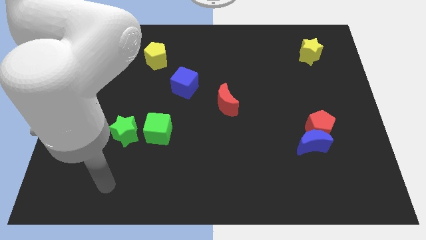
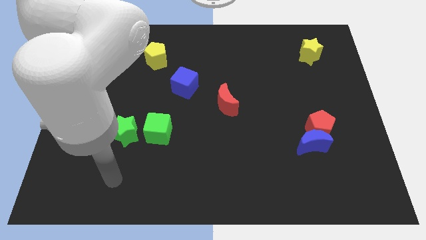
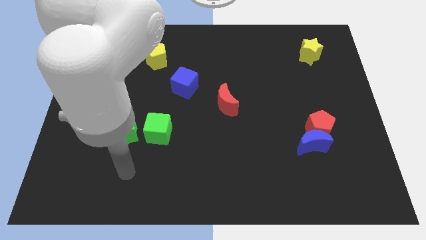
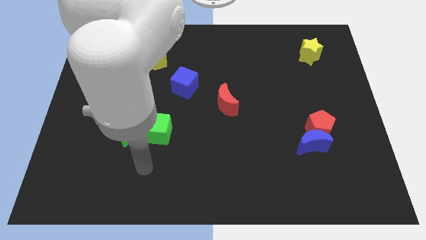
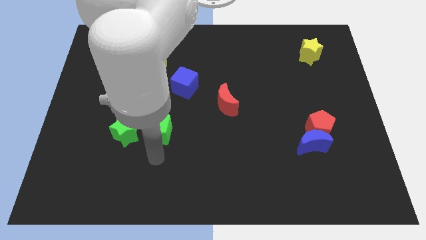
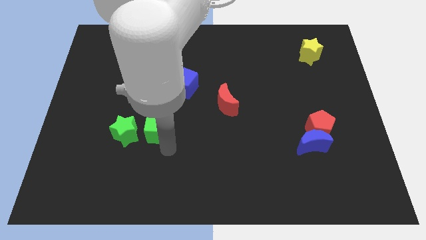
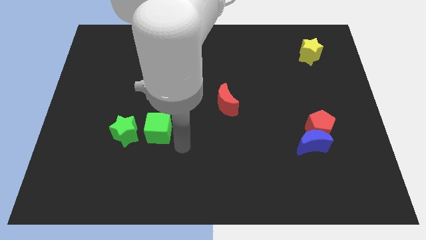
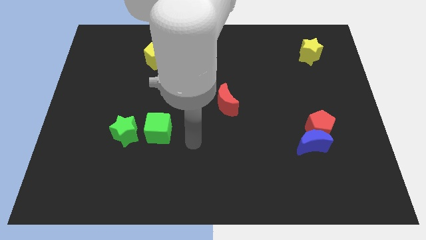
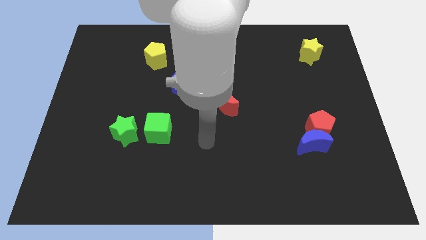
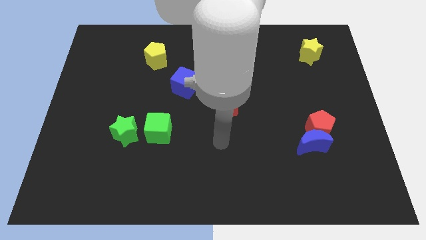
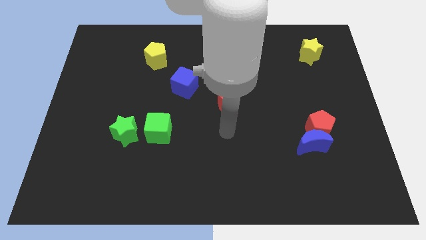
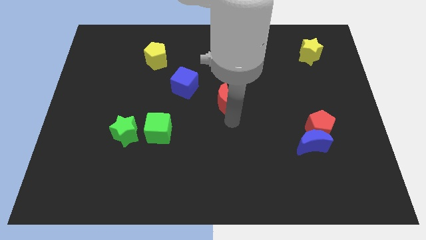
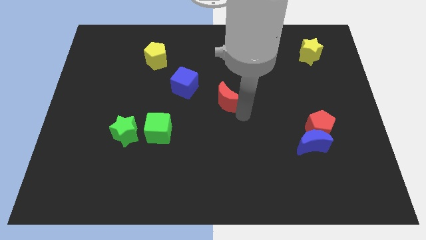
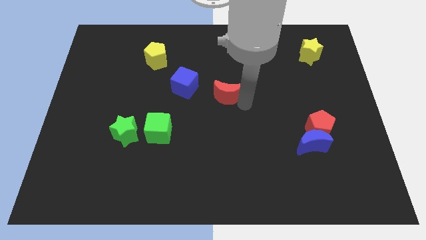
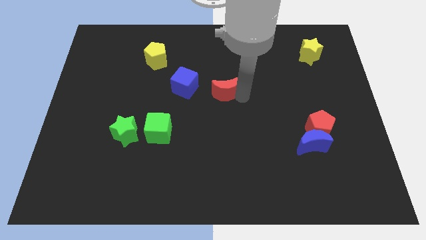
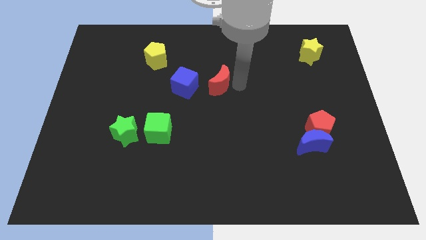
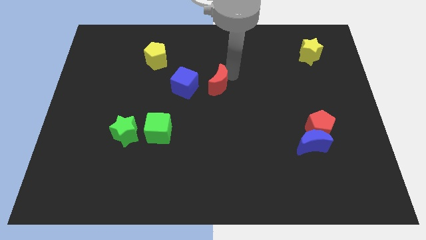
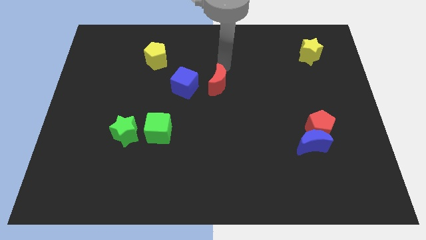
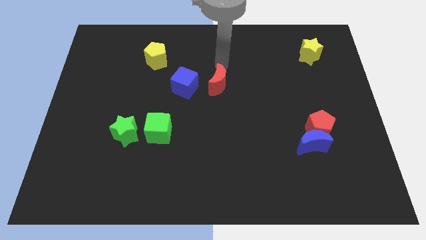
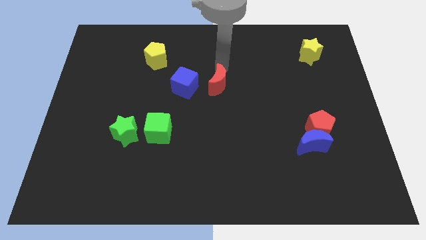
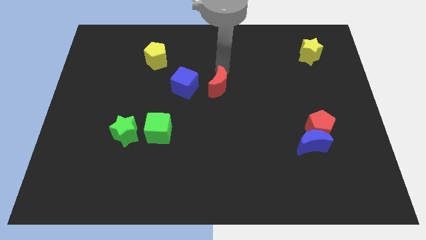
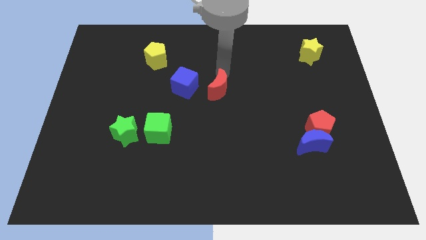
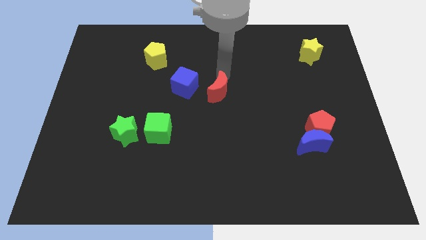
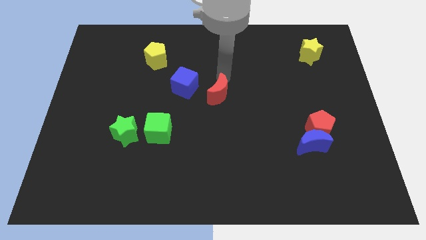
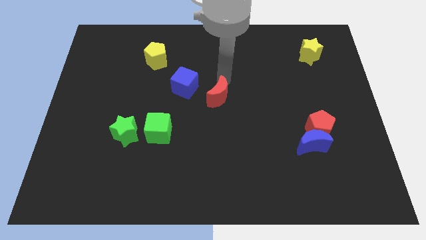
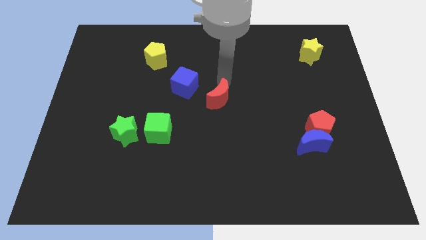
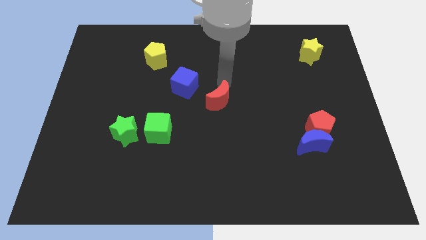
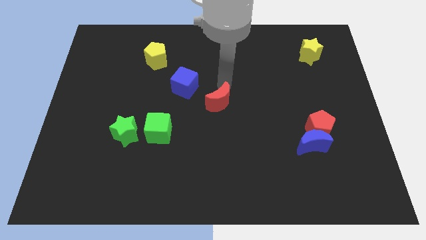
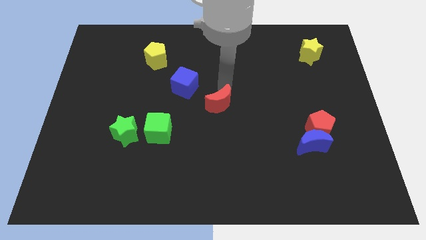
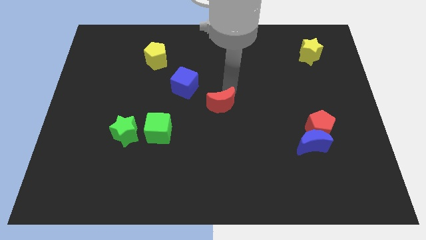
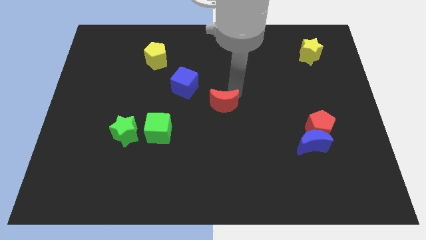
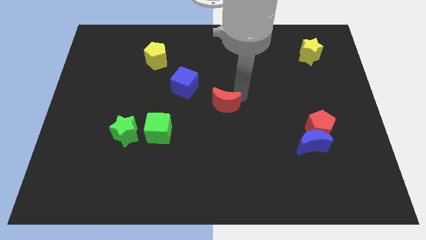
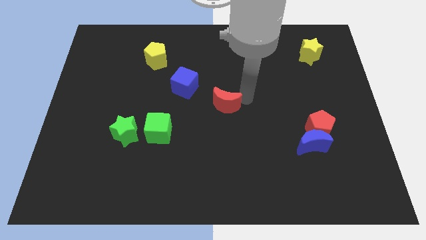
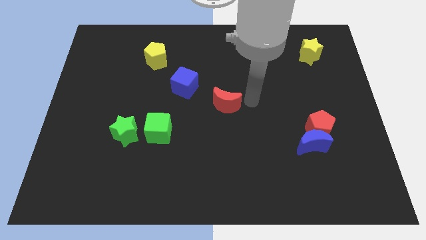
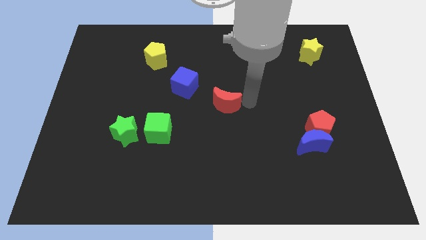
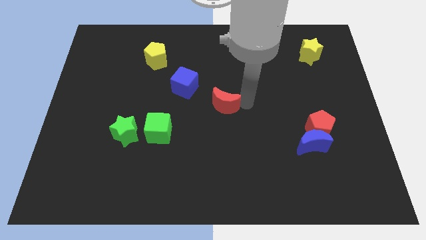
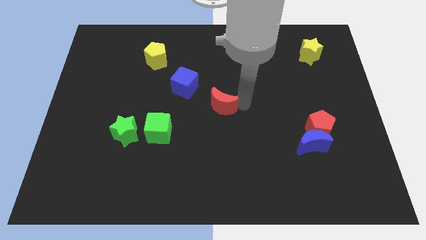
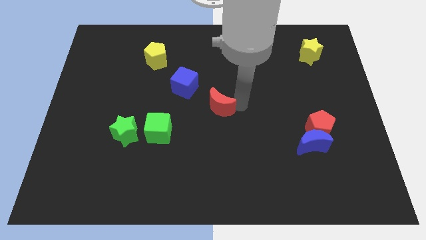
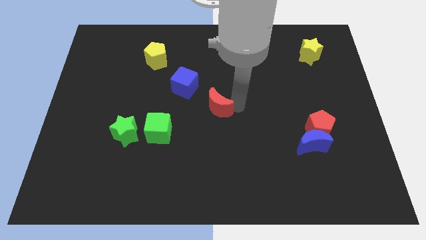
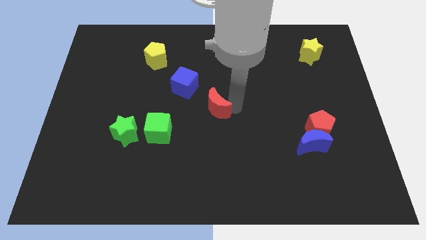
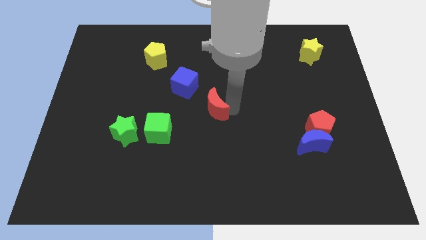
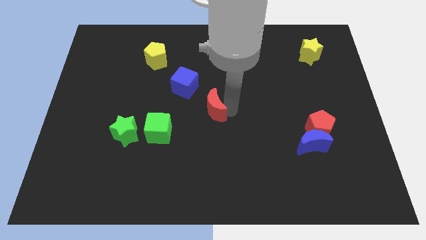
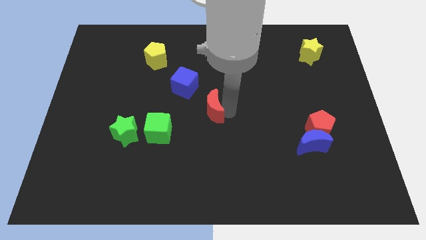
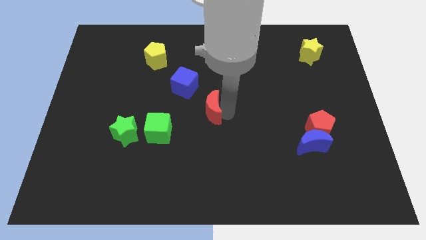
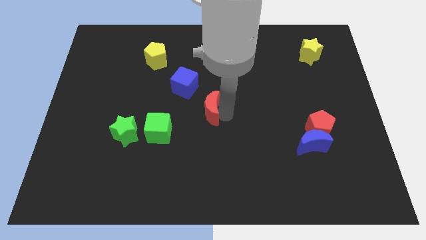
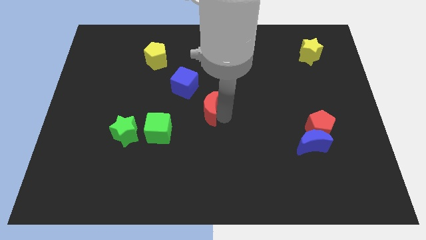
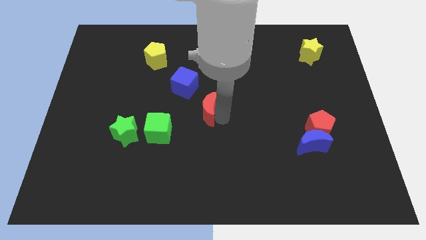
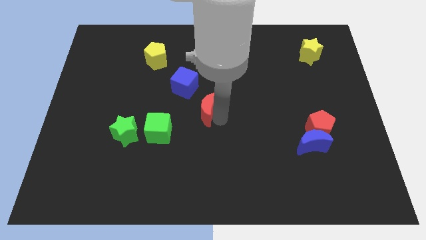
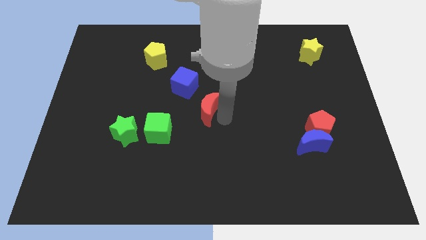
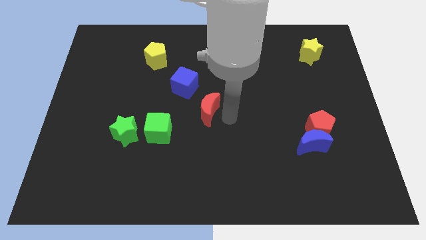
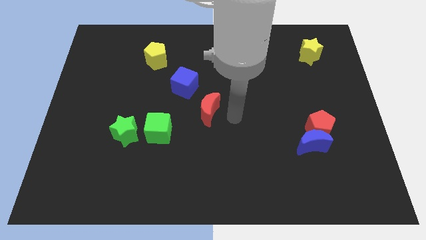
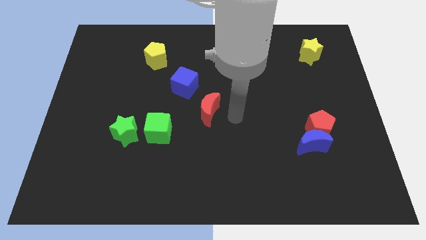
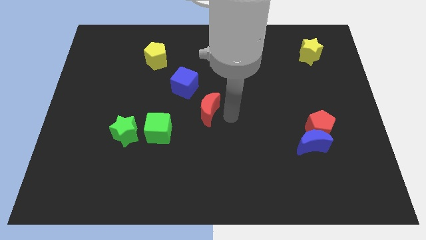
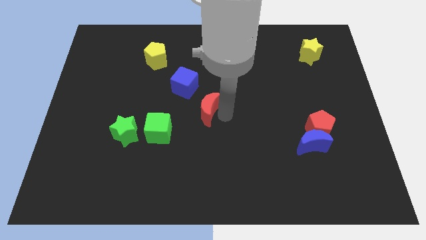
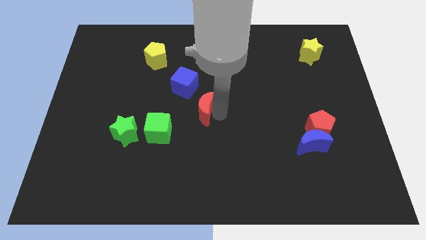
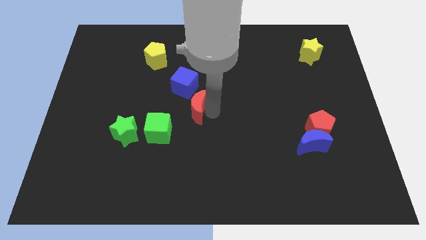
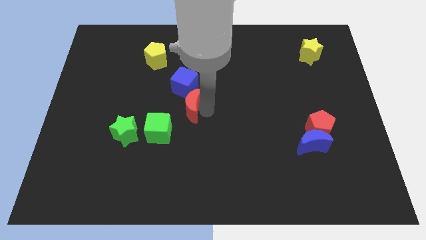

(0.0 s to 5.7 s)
slide the red moon left a bit

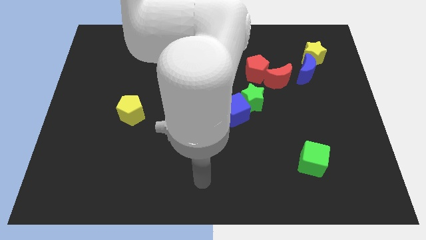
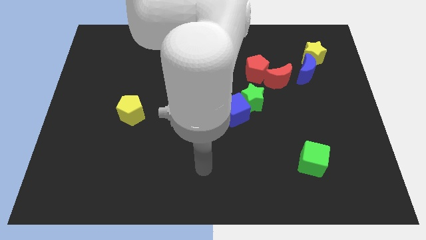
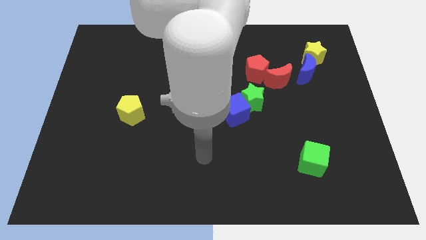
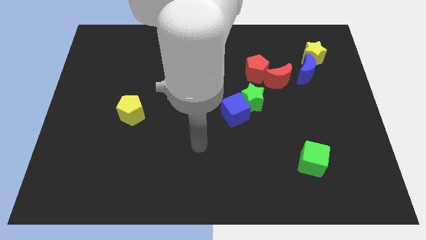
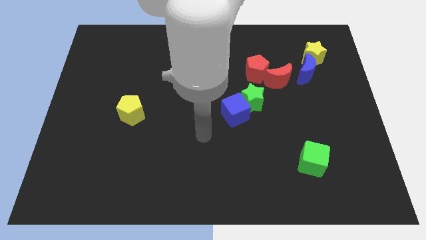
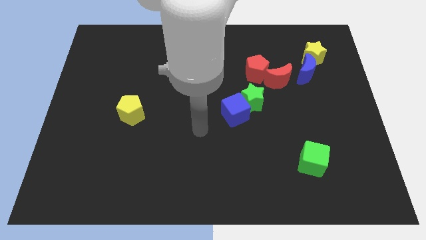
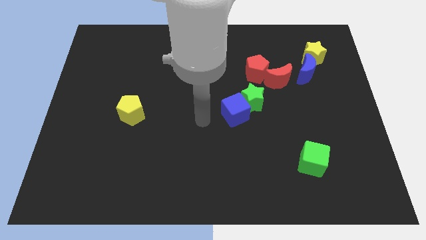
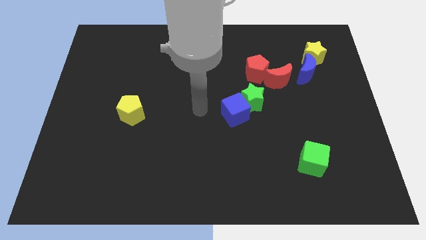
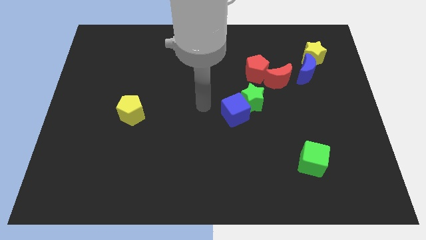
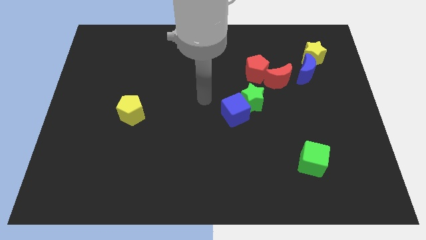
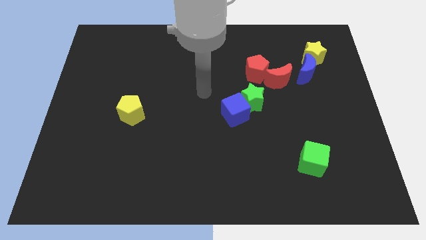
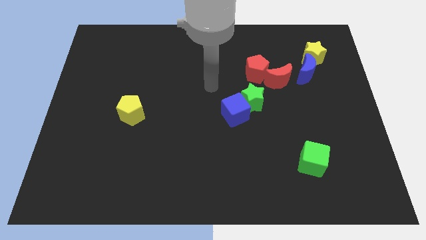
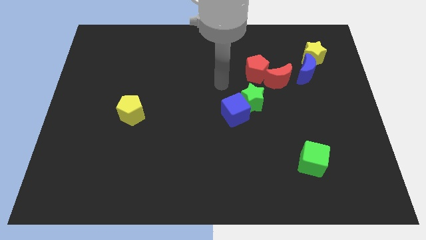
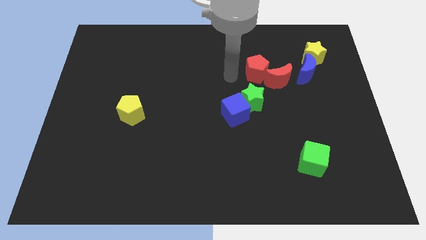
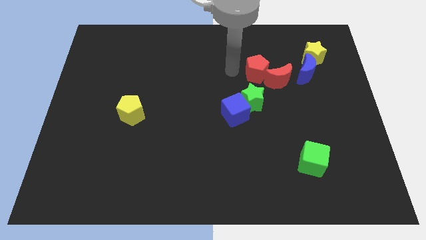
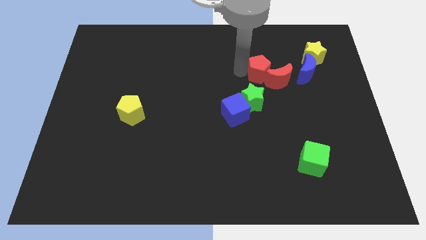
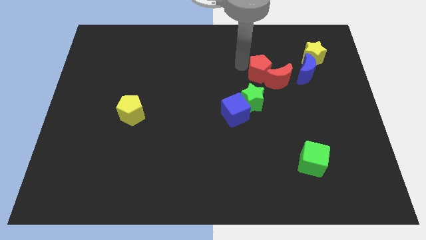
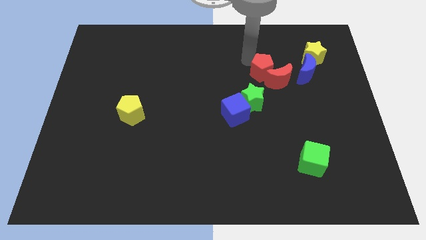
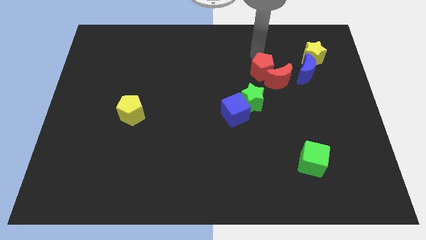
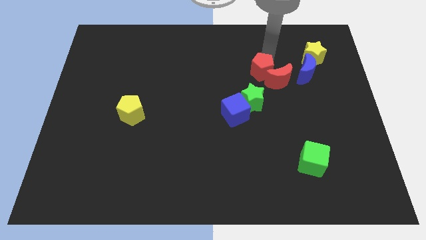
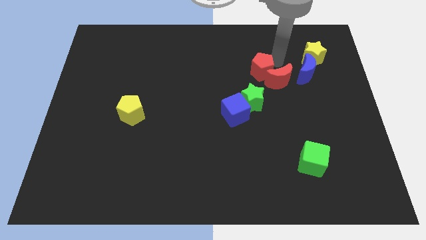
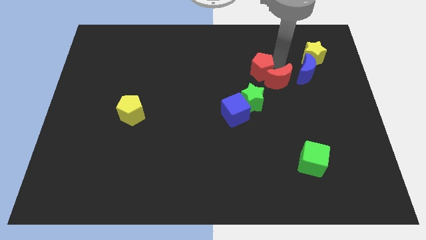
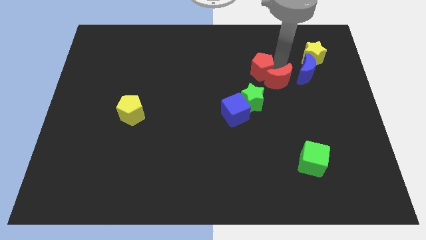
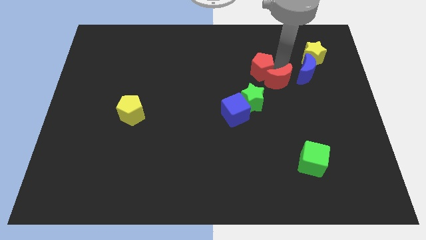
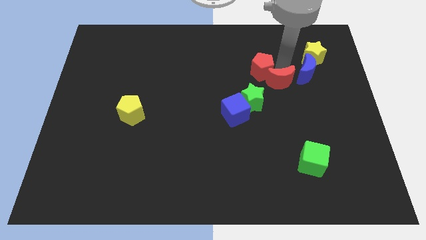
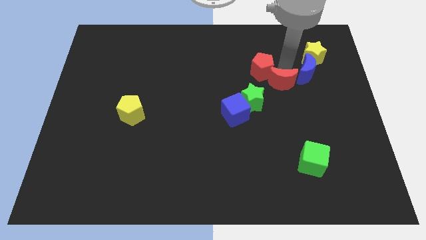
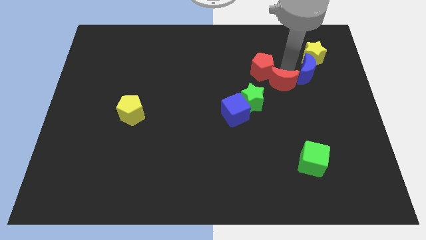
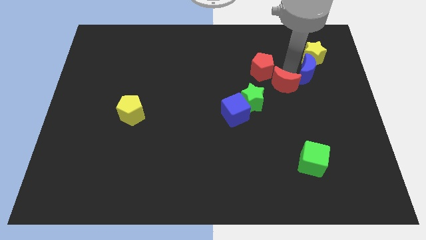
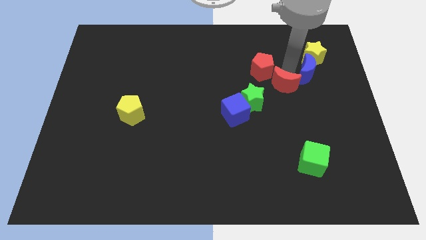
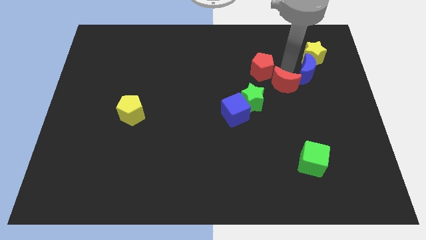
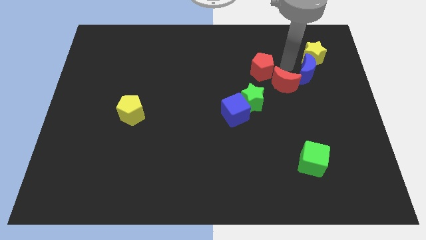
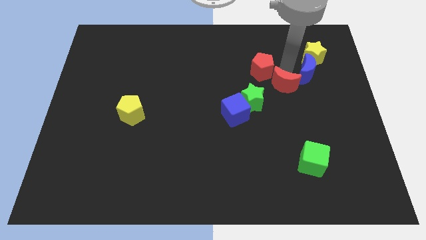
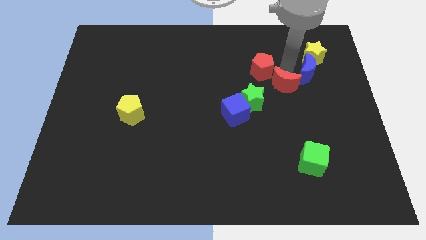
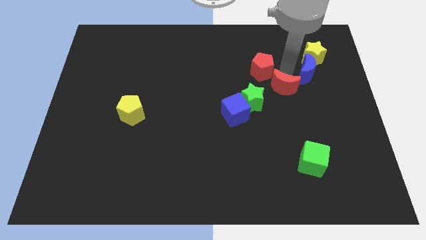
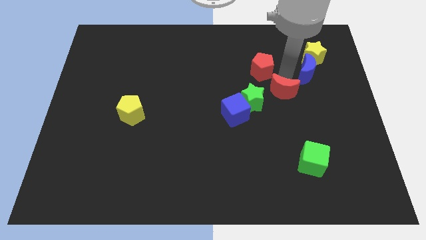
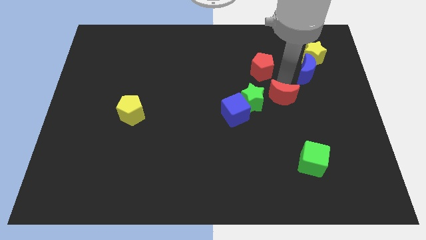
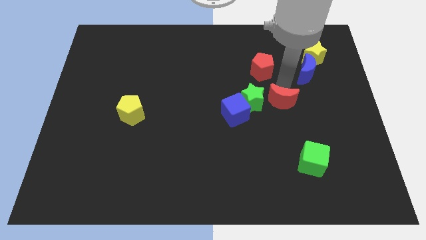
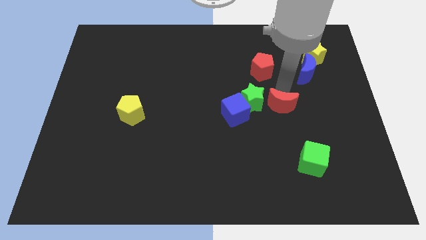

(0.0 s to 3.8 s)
slightly move the red moon downwards
